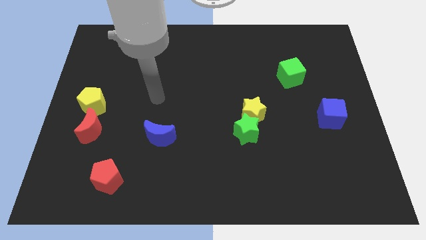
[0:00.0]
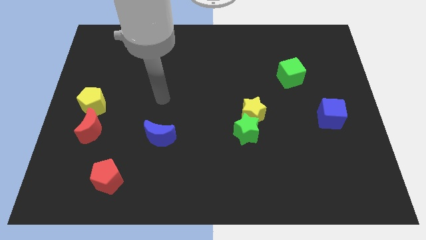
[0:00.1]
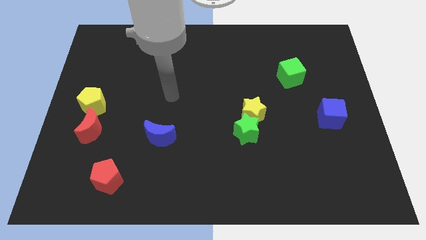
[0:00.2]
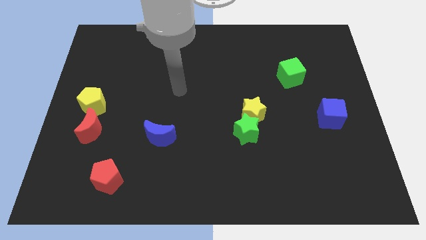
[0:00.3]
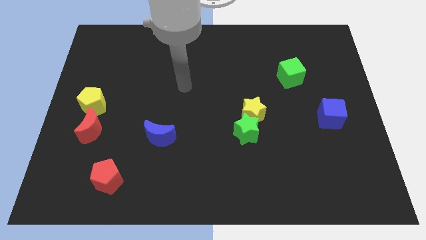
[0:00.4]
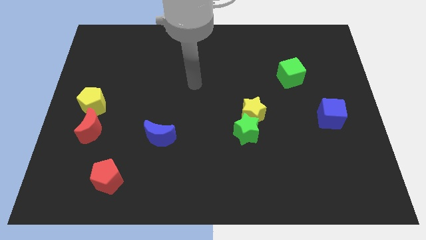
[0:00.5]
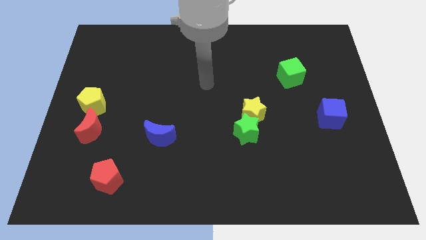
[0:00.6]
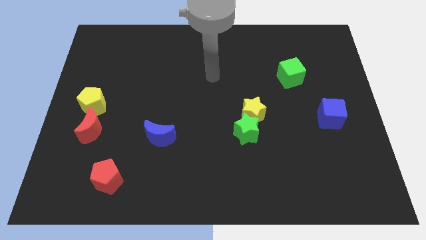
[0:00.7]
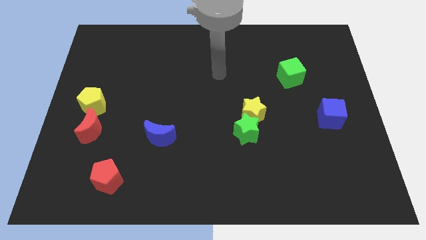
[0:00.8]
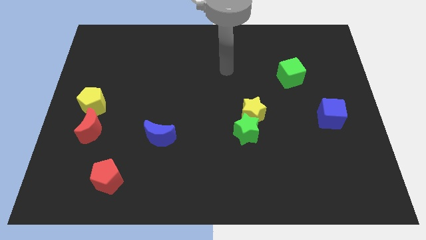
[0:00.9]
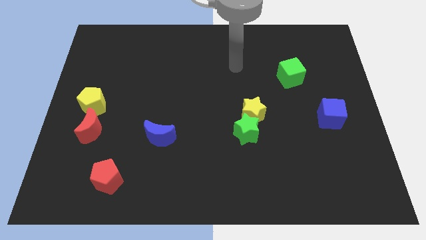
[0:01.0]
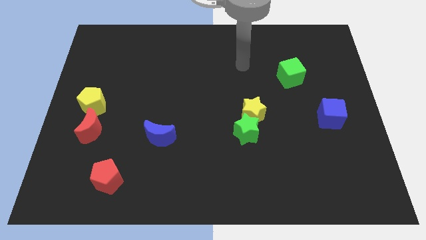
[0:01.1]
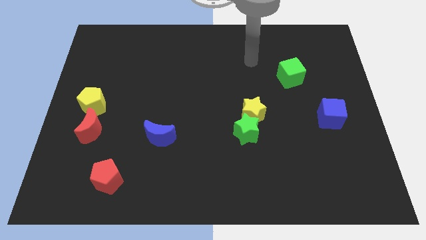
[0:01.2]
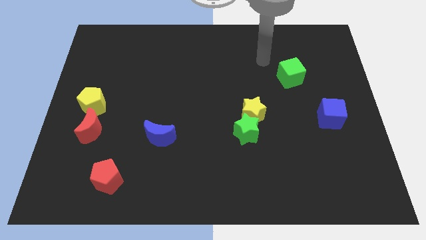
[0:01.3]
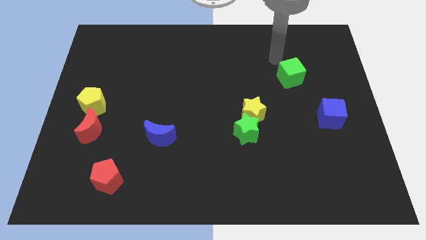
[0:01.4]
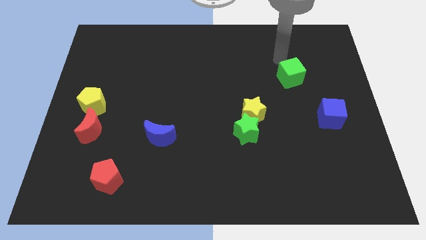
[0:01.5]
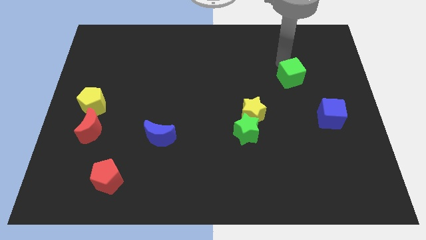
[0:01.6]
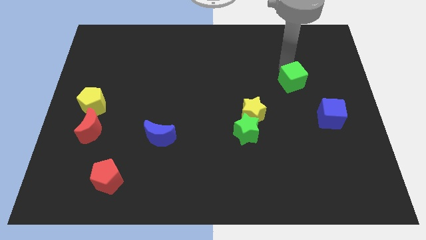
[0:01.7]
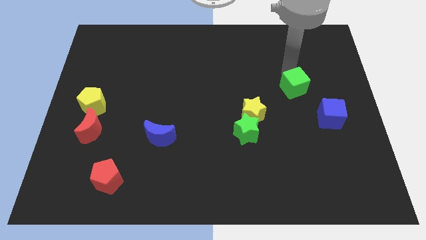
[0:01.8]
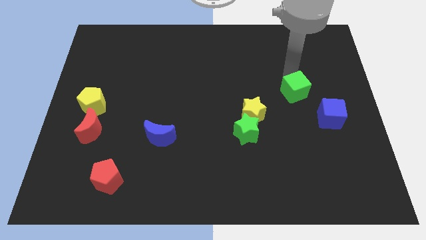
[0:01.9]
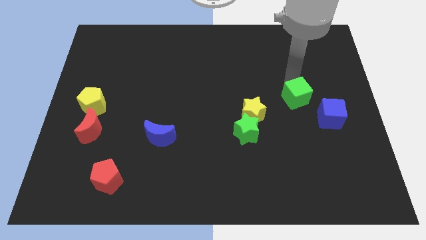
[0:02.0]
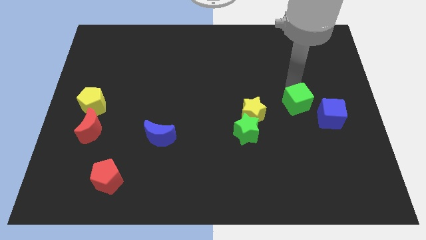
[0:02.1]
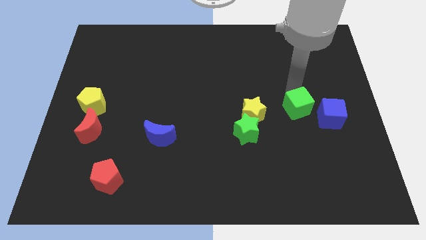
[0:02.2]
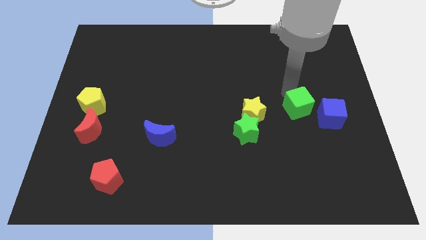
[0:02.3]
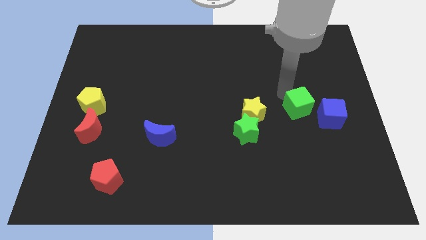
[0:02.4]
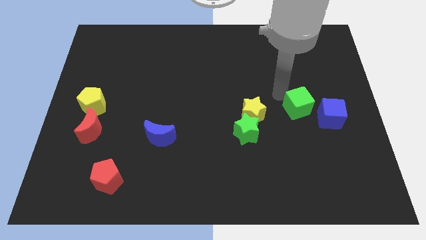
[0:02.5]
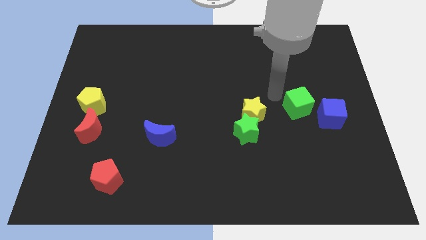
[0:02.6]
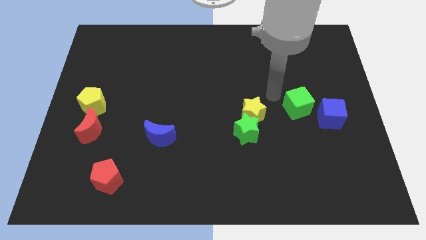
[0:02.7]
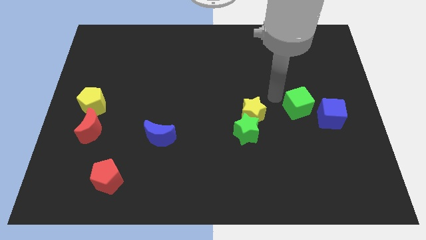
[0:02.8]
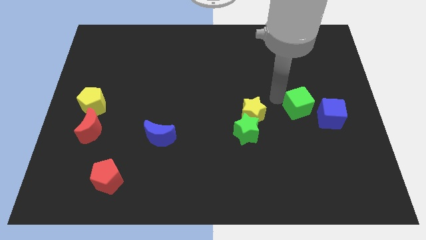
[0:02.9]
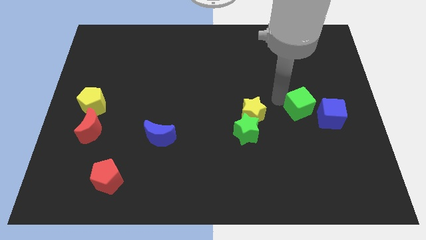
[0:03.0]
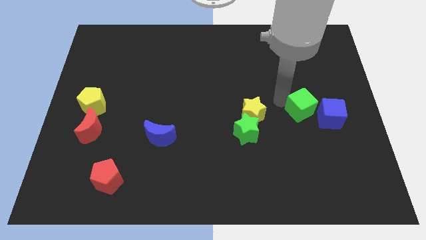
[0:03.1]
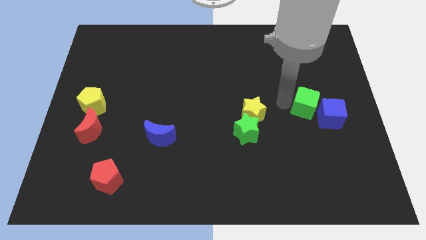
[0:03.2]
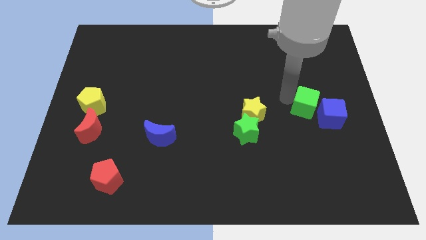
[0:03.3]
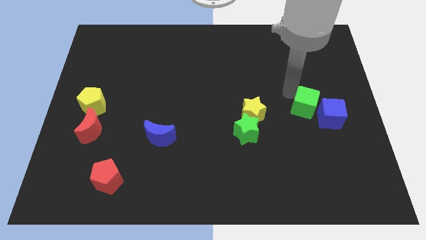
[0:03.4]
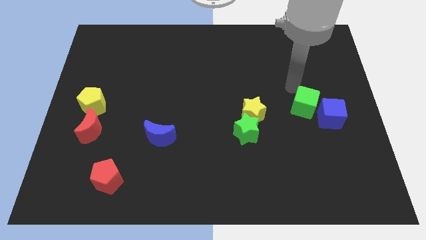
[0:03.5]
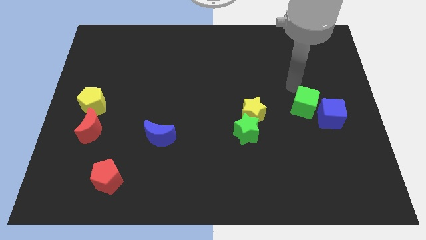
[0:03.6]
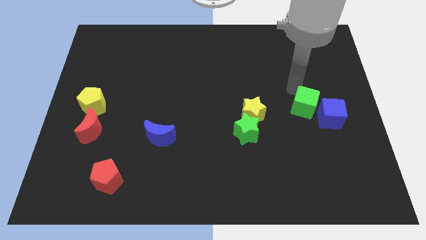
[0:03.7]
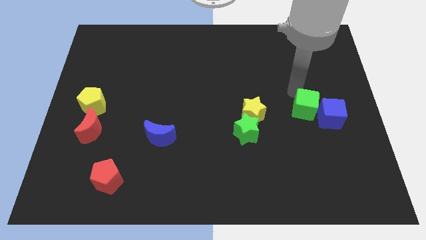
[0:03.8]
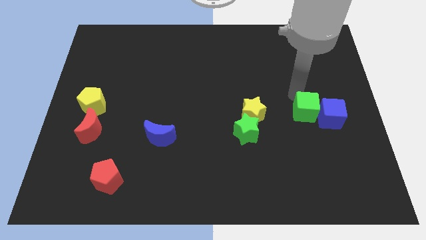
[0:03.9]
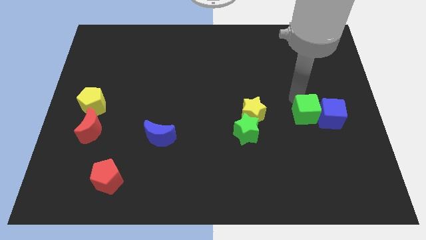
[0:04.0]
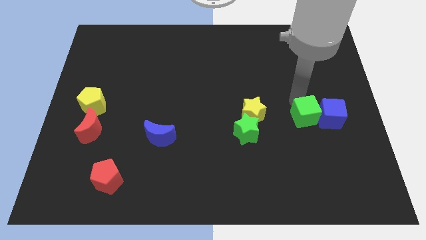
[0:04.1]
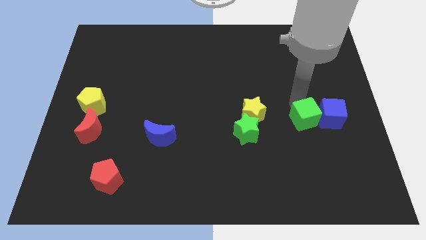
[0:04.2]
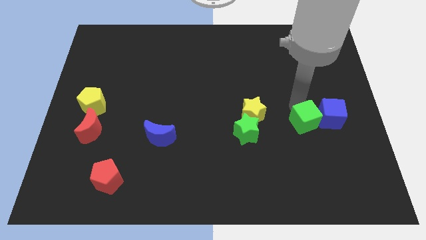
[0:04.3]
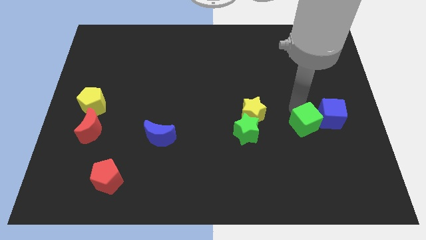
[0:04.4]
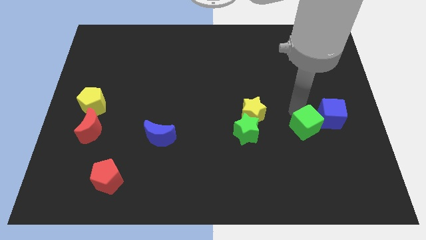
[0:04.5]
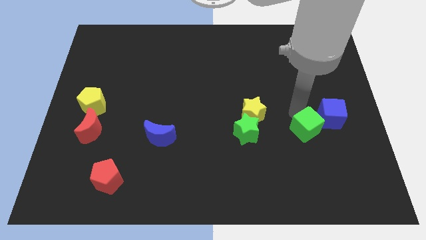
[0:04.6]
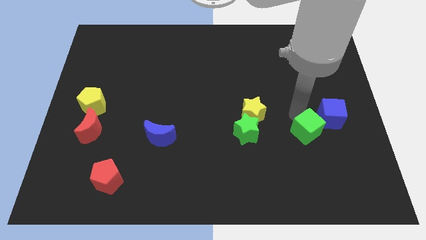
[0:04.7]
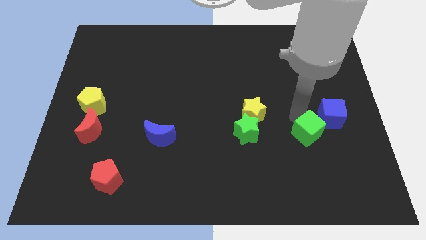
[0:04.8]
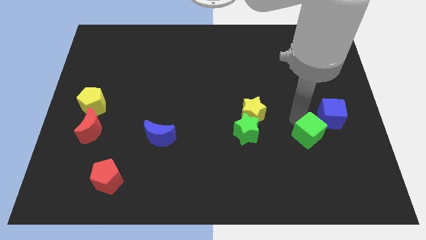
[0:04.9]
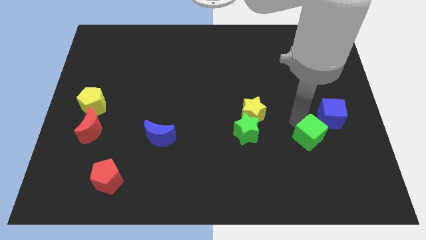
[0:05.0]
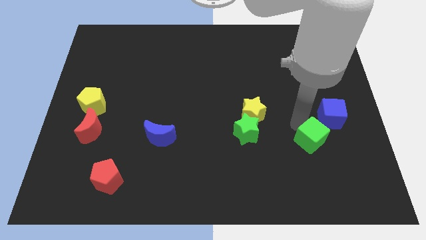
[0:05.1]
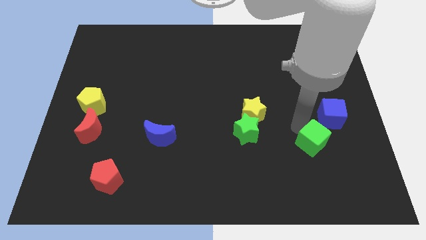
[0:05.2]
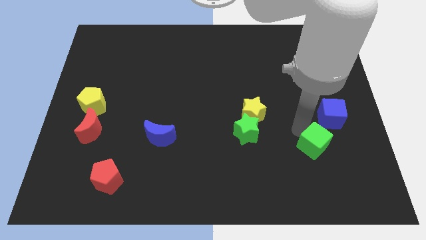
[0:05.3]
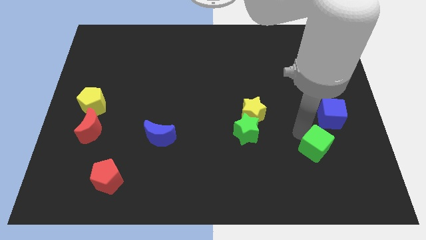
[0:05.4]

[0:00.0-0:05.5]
push the green cube to the bottom of the blue cube

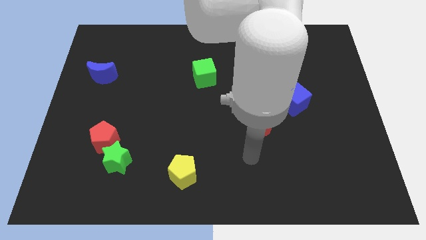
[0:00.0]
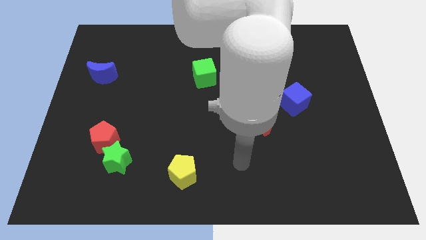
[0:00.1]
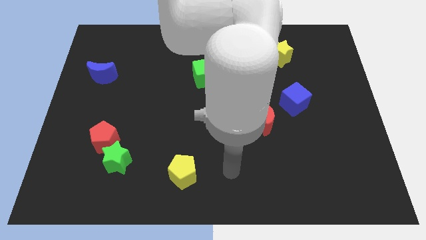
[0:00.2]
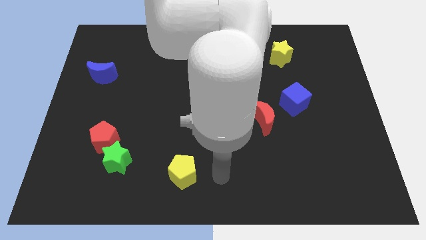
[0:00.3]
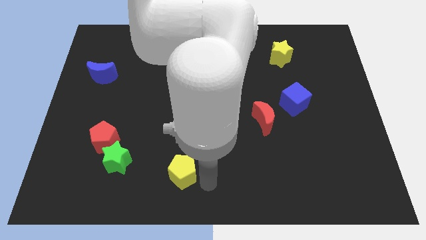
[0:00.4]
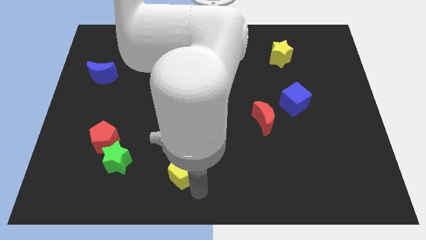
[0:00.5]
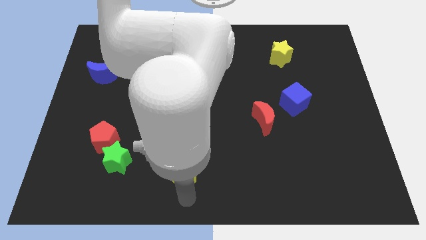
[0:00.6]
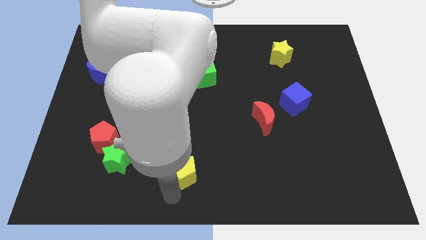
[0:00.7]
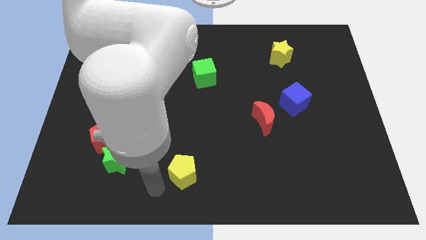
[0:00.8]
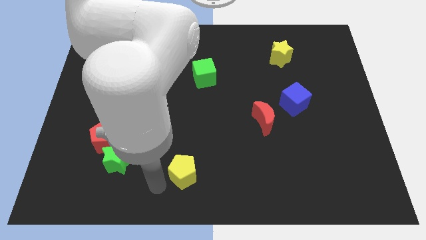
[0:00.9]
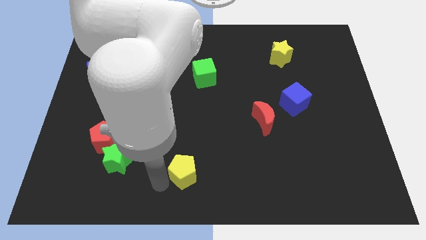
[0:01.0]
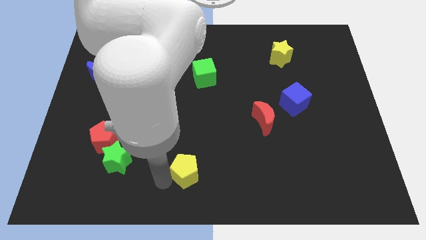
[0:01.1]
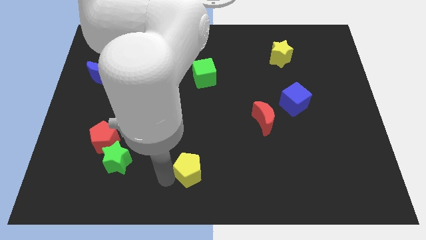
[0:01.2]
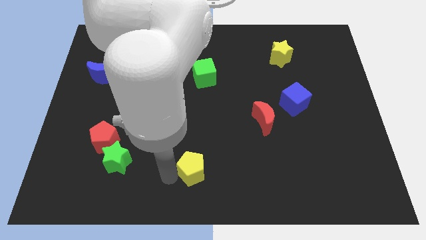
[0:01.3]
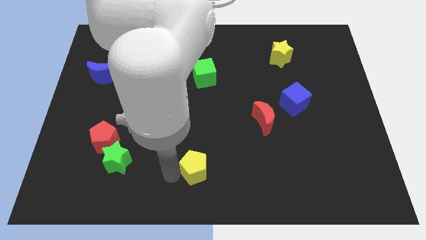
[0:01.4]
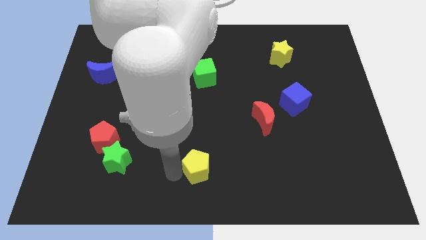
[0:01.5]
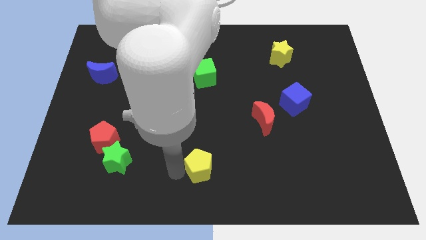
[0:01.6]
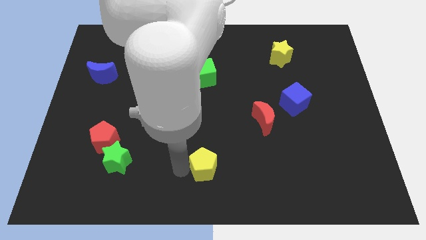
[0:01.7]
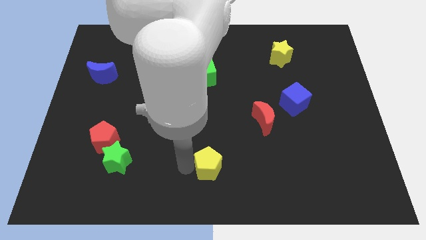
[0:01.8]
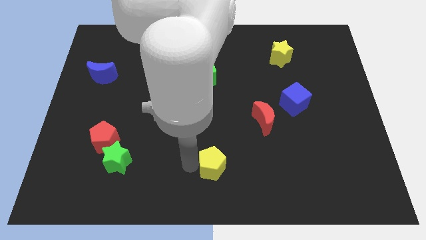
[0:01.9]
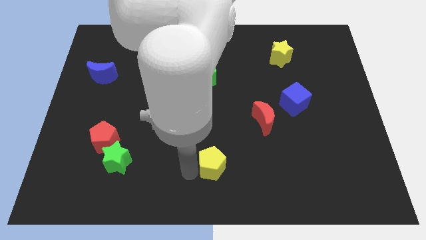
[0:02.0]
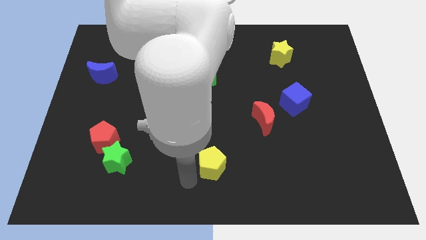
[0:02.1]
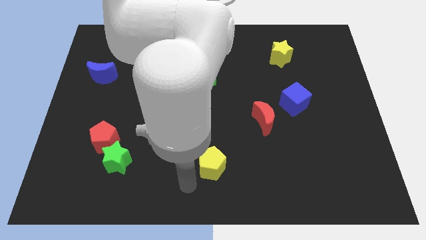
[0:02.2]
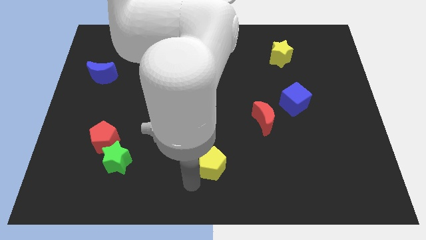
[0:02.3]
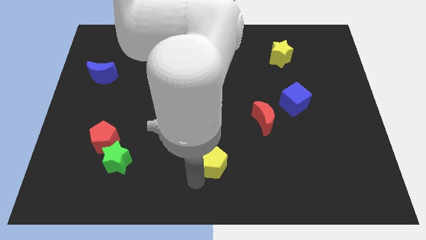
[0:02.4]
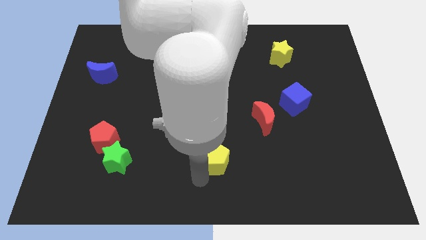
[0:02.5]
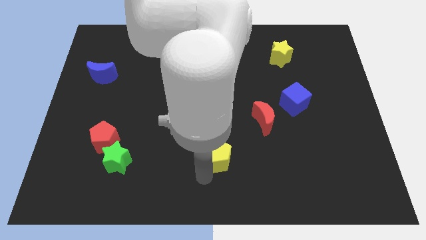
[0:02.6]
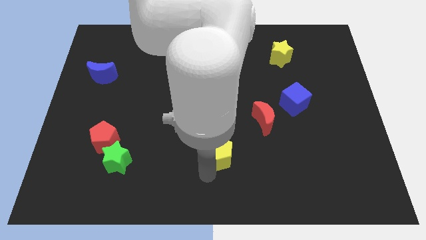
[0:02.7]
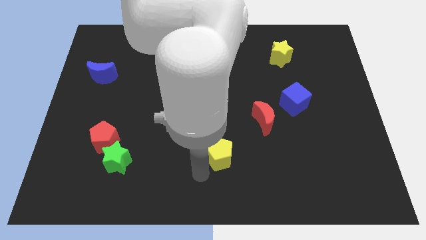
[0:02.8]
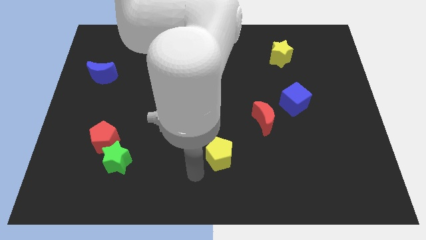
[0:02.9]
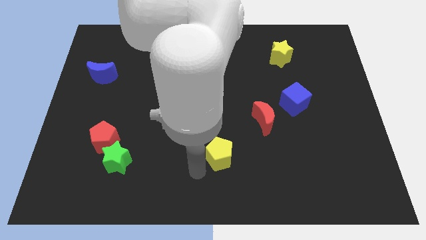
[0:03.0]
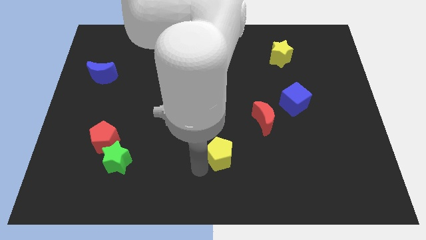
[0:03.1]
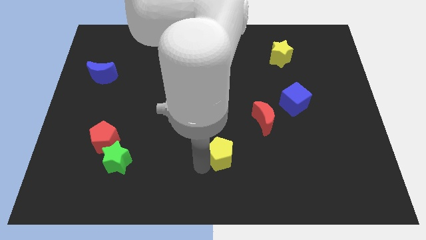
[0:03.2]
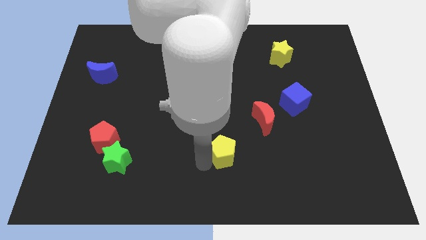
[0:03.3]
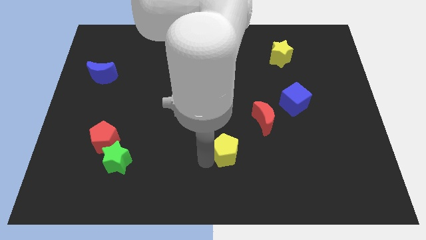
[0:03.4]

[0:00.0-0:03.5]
put the yellow pentagon to the bottom left side of the red moon
